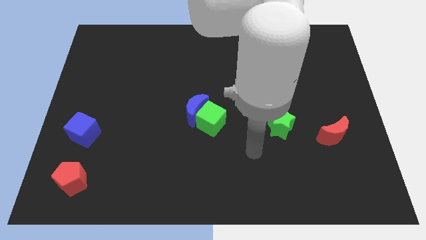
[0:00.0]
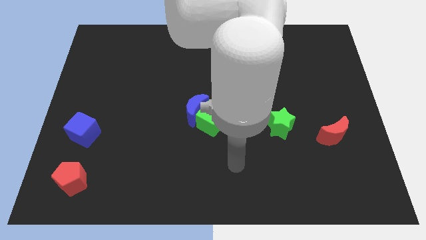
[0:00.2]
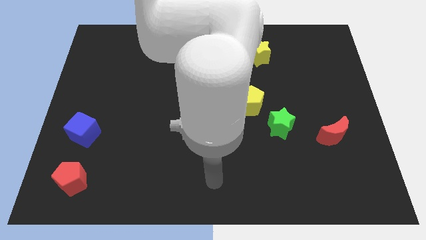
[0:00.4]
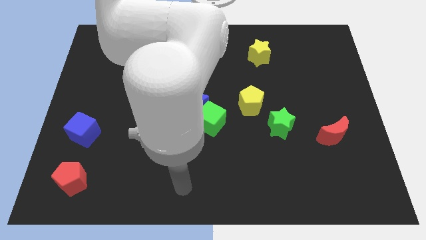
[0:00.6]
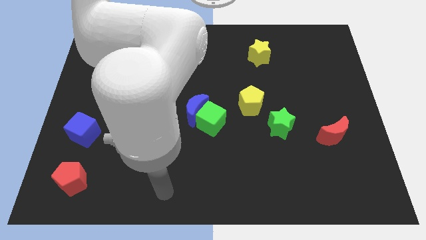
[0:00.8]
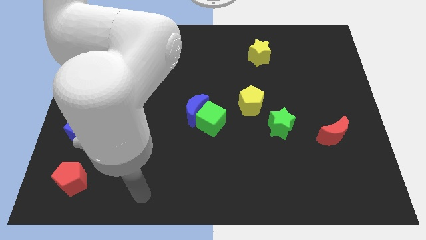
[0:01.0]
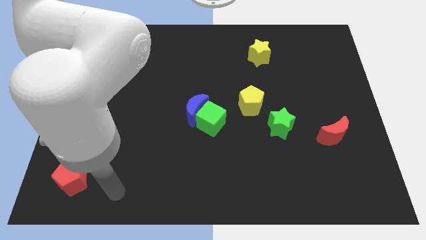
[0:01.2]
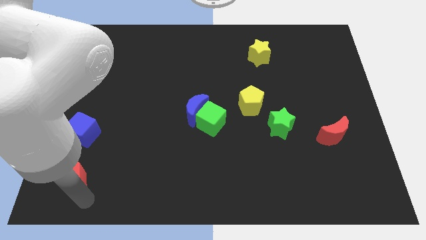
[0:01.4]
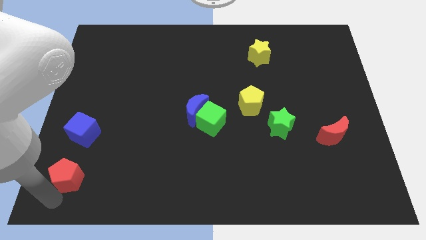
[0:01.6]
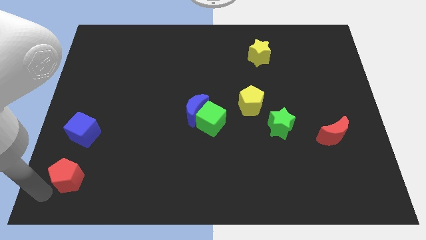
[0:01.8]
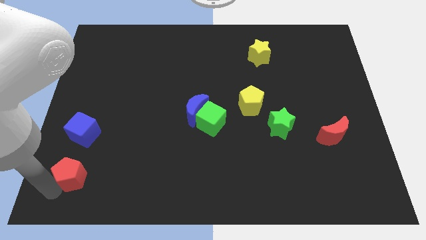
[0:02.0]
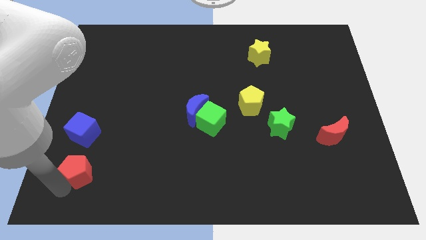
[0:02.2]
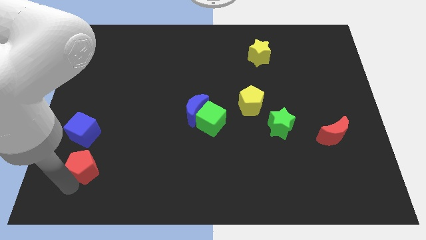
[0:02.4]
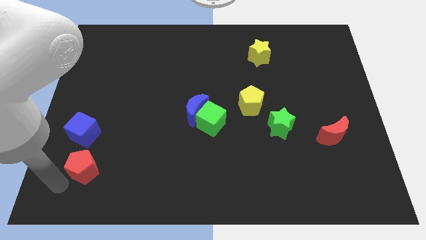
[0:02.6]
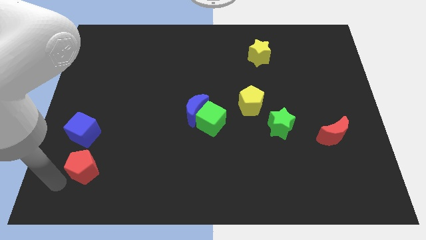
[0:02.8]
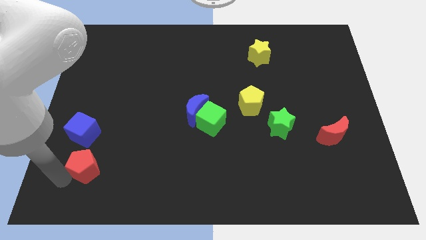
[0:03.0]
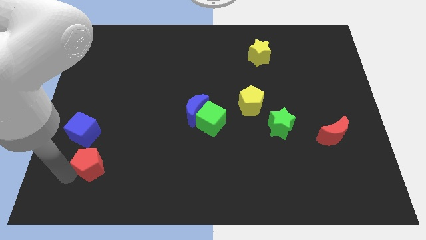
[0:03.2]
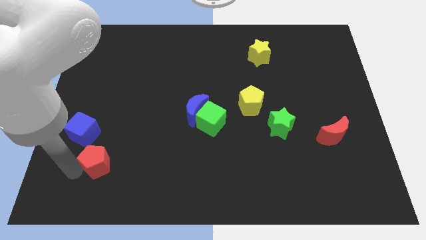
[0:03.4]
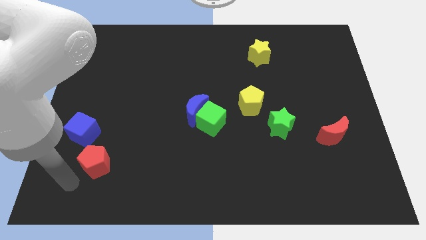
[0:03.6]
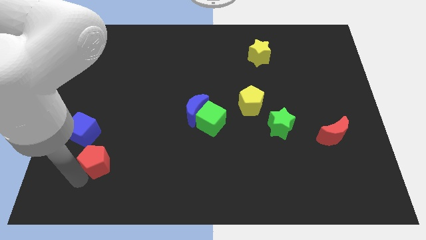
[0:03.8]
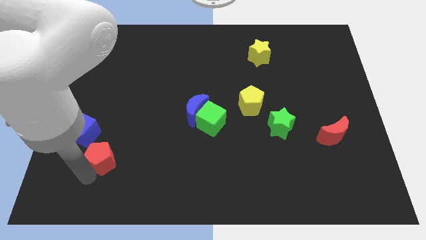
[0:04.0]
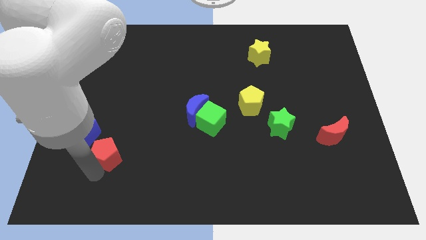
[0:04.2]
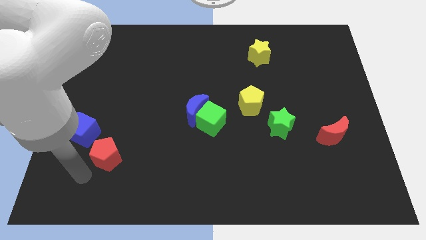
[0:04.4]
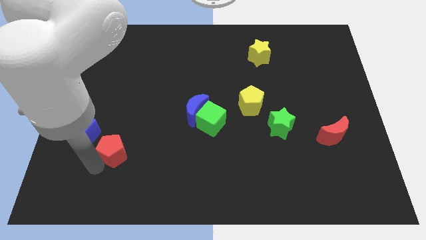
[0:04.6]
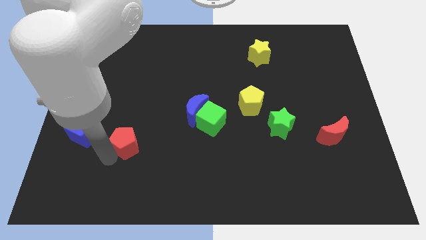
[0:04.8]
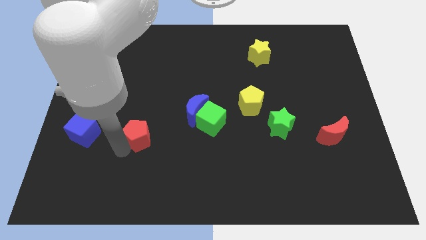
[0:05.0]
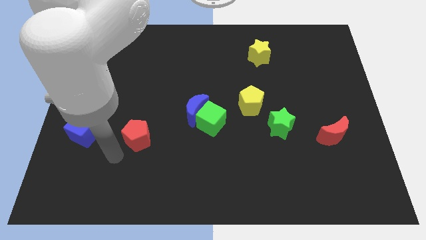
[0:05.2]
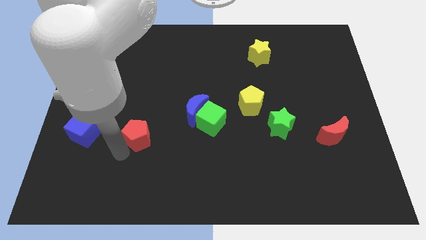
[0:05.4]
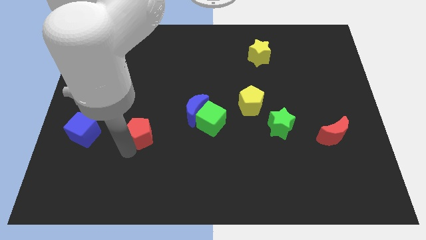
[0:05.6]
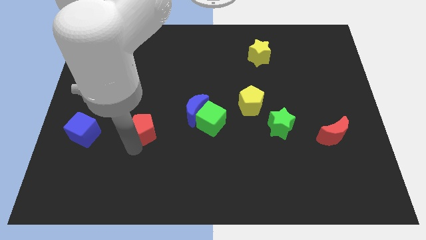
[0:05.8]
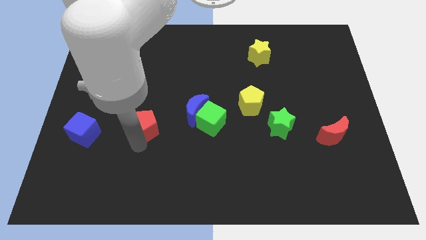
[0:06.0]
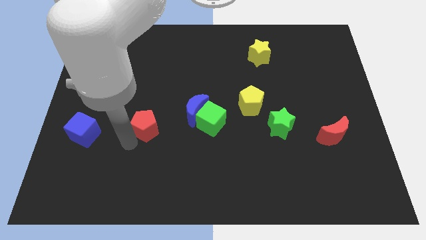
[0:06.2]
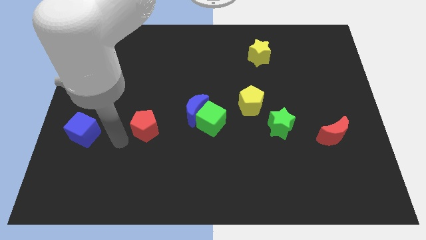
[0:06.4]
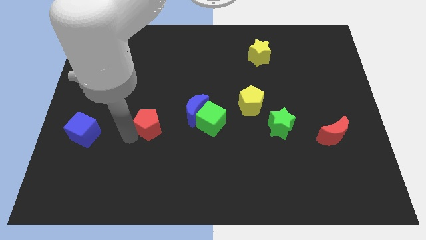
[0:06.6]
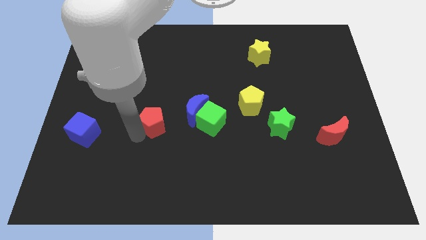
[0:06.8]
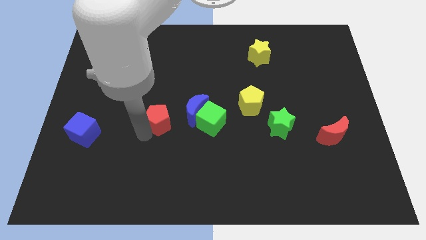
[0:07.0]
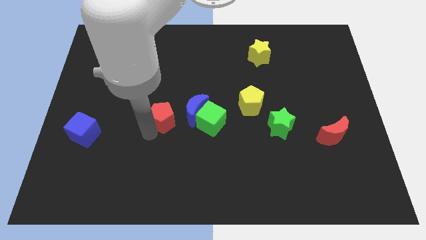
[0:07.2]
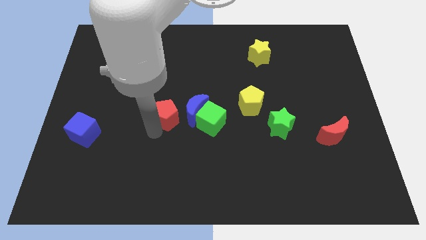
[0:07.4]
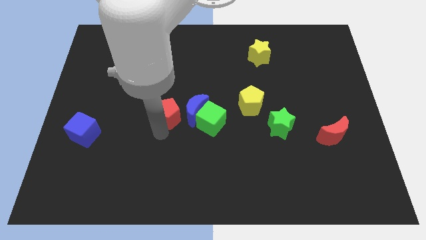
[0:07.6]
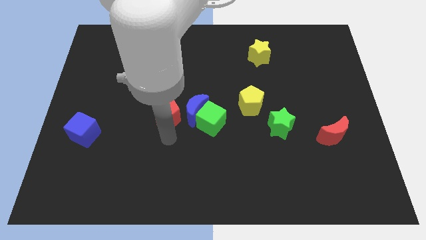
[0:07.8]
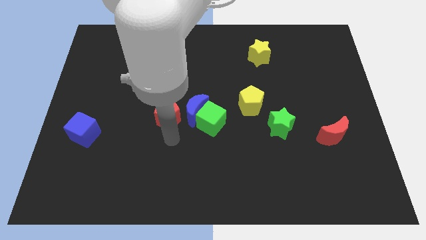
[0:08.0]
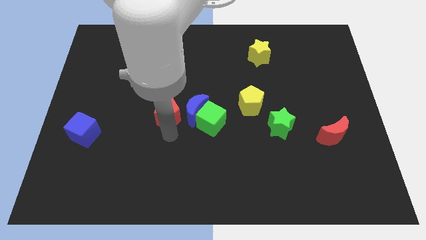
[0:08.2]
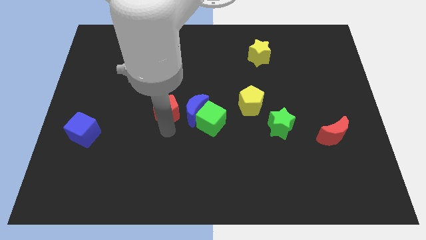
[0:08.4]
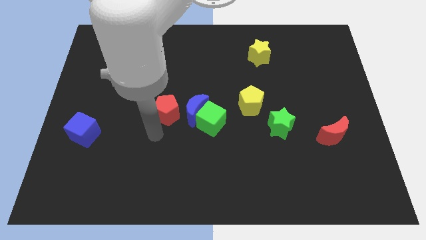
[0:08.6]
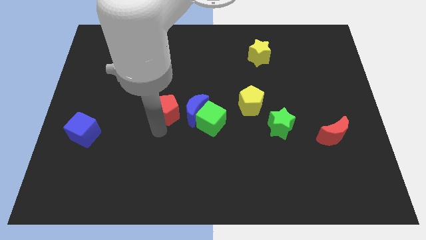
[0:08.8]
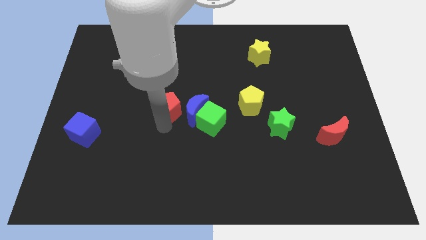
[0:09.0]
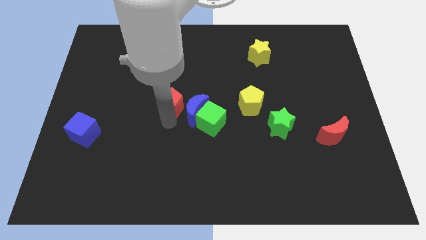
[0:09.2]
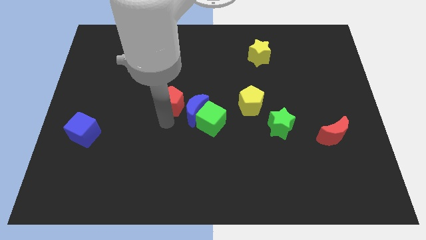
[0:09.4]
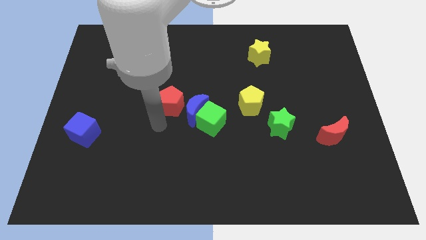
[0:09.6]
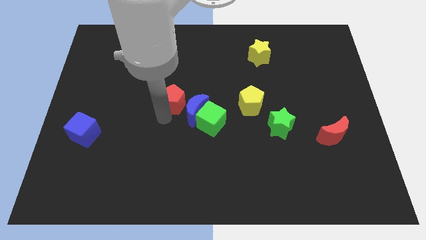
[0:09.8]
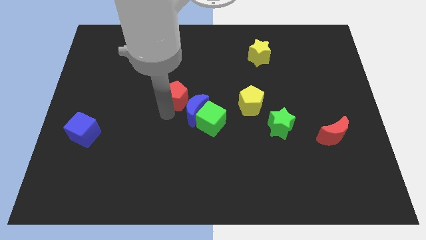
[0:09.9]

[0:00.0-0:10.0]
slide the red pentagon to the top side of the blue moon

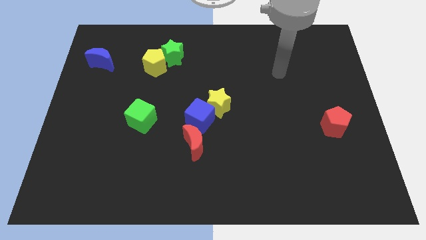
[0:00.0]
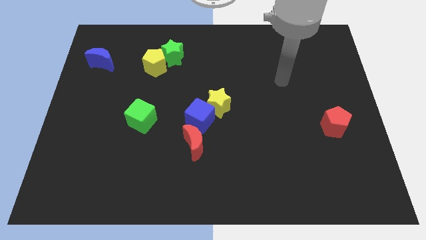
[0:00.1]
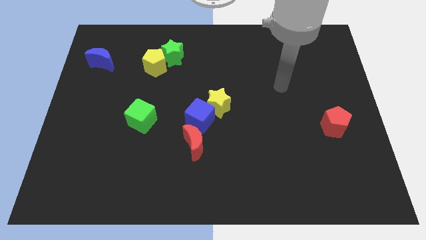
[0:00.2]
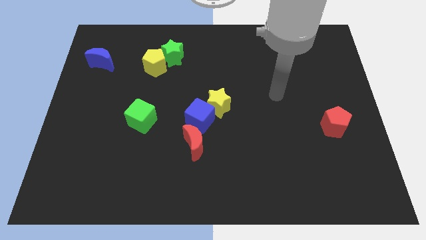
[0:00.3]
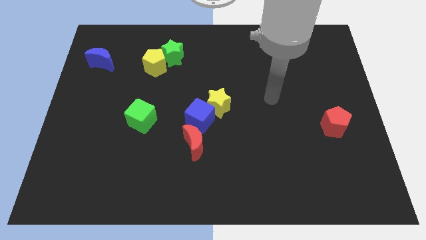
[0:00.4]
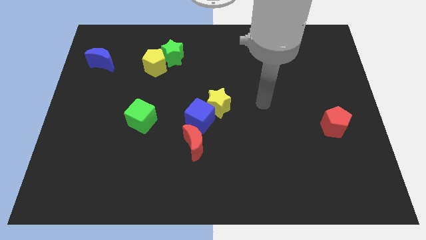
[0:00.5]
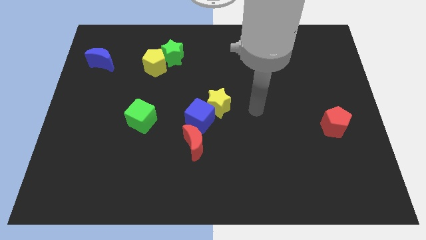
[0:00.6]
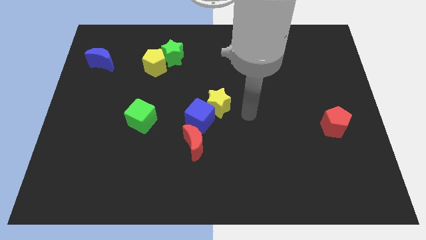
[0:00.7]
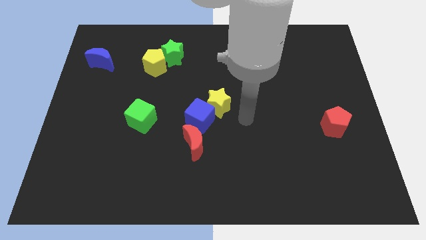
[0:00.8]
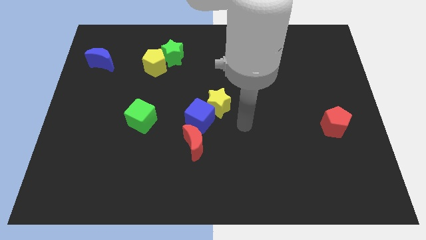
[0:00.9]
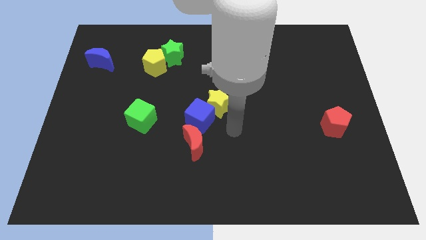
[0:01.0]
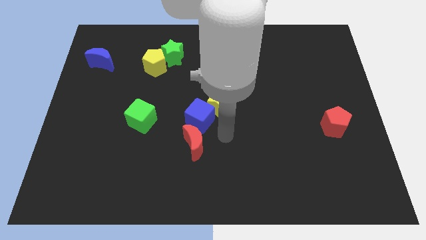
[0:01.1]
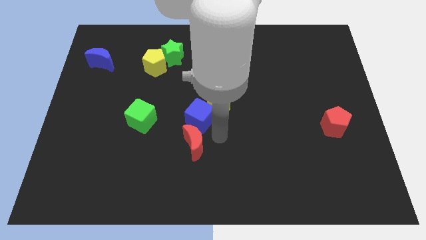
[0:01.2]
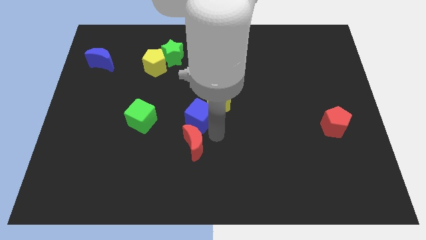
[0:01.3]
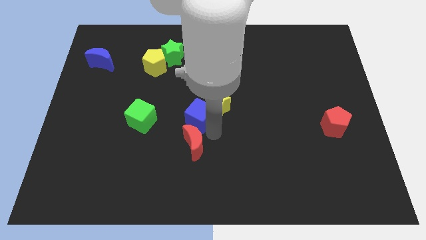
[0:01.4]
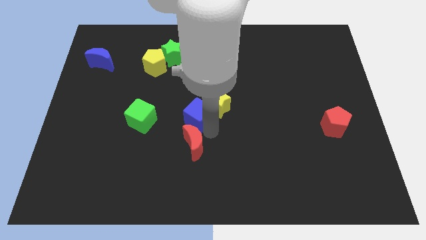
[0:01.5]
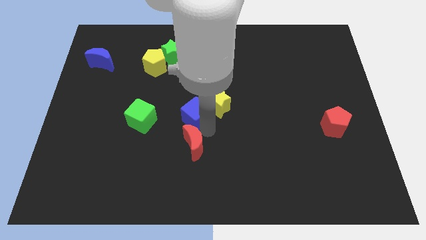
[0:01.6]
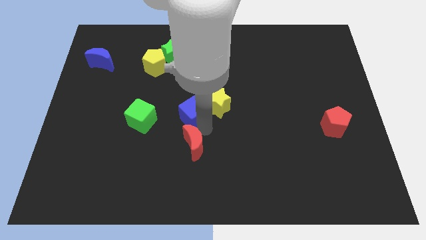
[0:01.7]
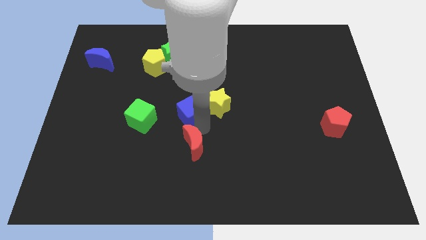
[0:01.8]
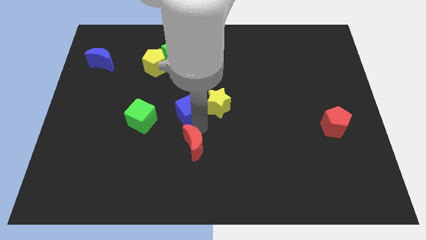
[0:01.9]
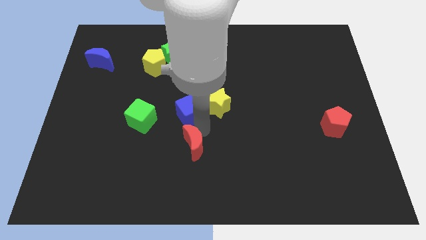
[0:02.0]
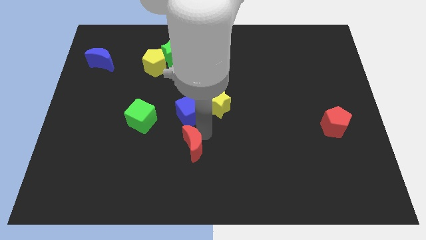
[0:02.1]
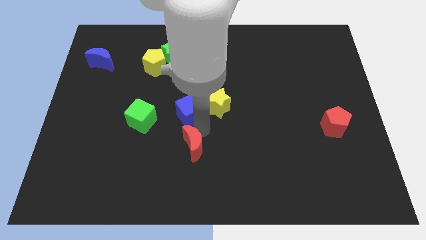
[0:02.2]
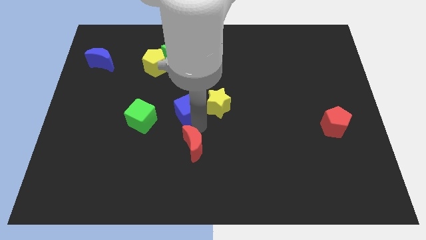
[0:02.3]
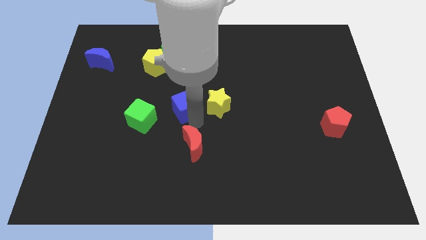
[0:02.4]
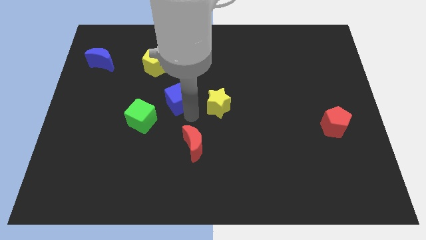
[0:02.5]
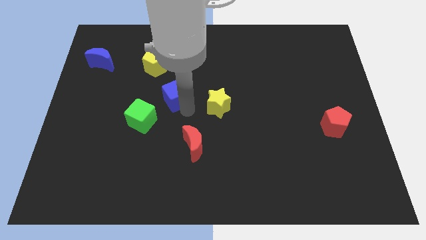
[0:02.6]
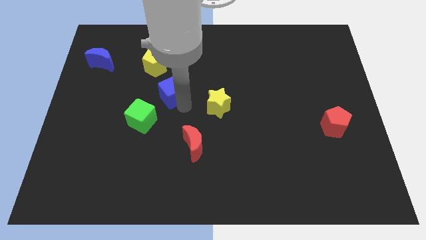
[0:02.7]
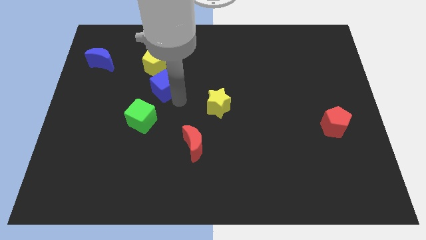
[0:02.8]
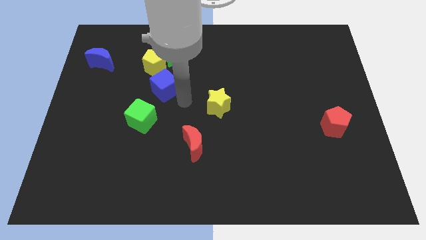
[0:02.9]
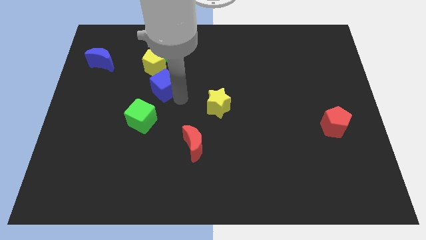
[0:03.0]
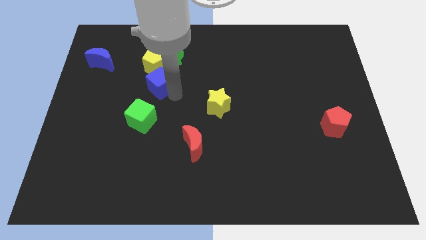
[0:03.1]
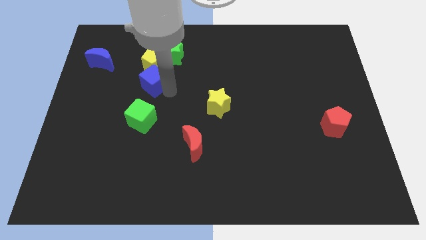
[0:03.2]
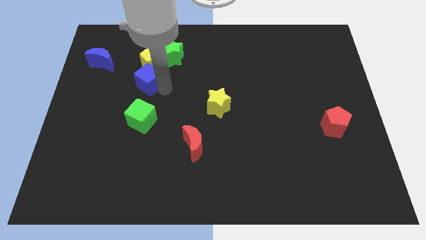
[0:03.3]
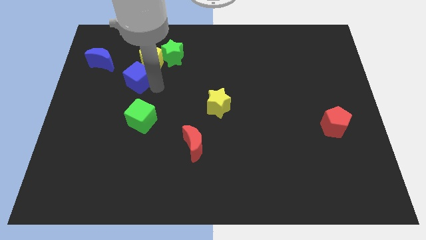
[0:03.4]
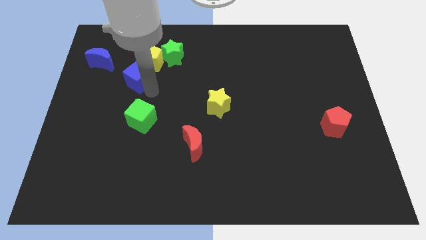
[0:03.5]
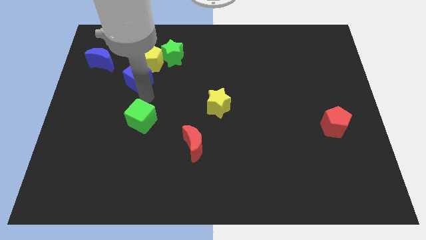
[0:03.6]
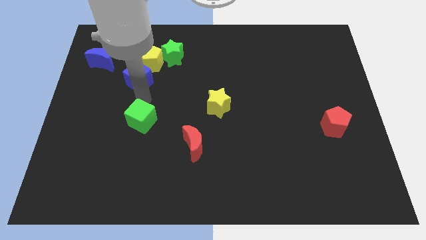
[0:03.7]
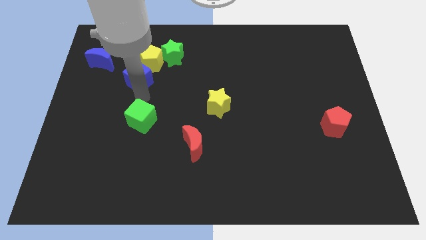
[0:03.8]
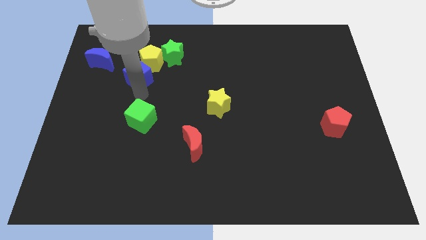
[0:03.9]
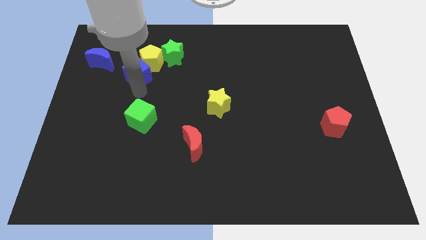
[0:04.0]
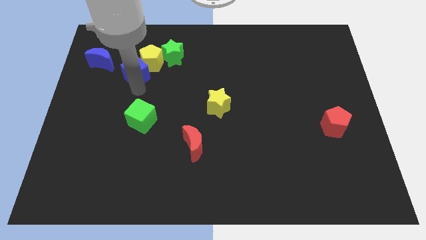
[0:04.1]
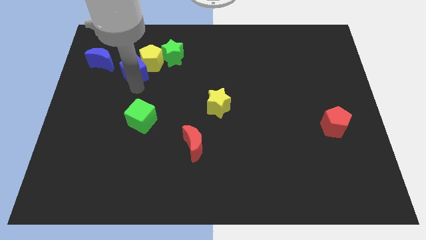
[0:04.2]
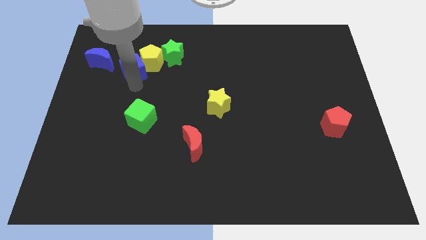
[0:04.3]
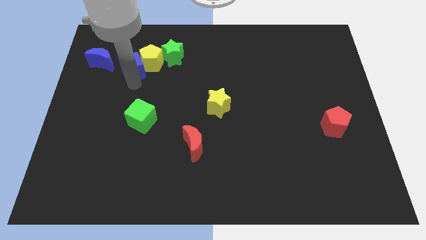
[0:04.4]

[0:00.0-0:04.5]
move the blue cube to the left of the green star
